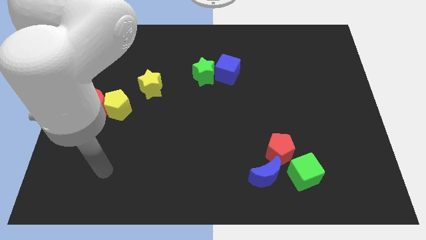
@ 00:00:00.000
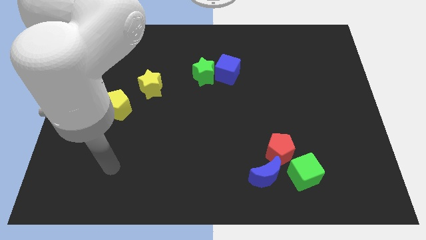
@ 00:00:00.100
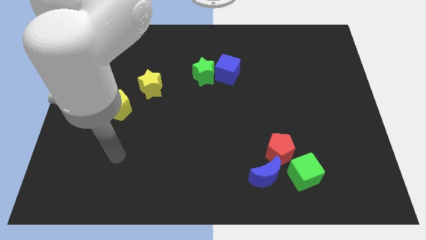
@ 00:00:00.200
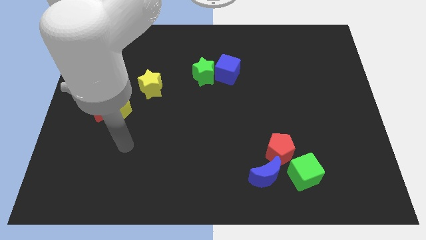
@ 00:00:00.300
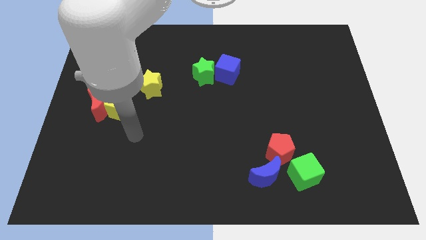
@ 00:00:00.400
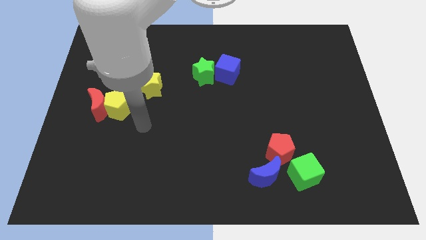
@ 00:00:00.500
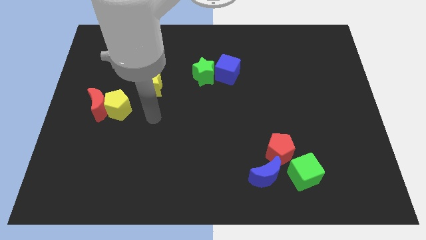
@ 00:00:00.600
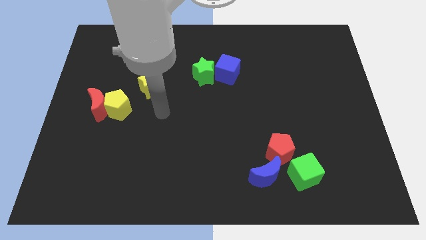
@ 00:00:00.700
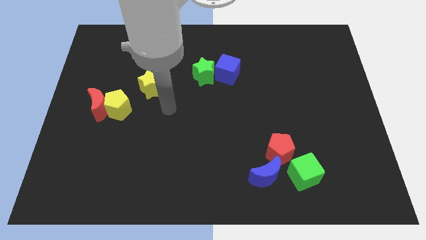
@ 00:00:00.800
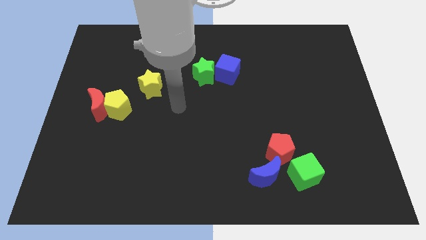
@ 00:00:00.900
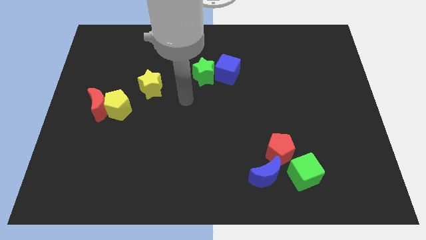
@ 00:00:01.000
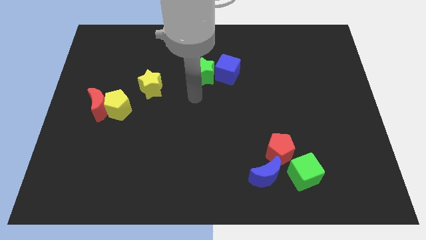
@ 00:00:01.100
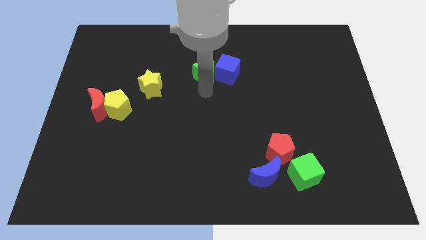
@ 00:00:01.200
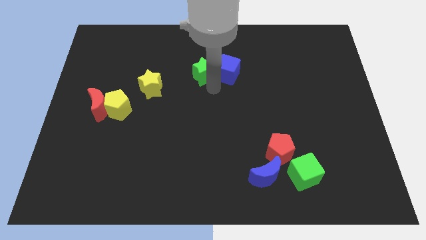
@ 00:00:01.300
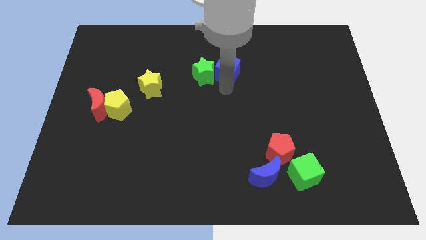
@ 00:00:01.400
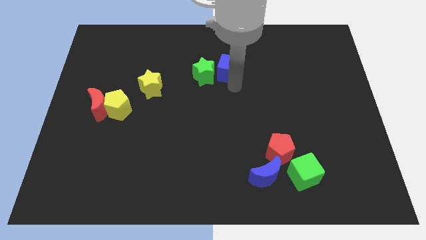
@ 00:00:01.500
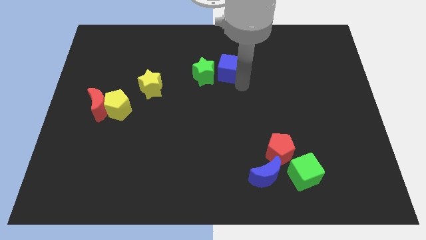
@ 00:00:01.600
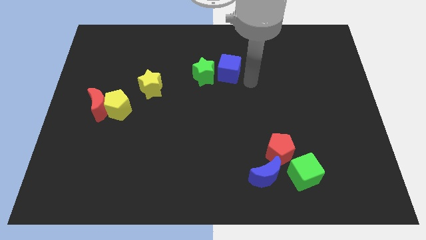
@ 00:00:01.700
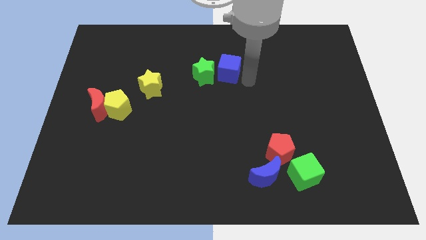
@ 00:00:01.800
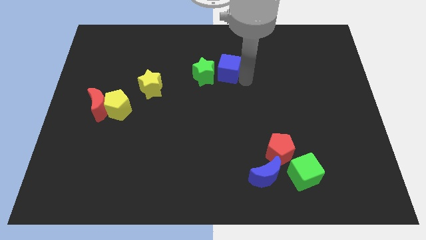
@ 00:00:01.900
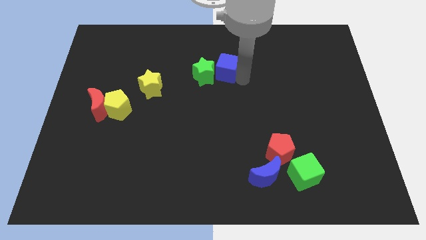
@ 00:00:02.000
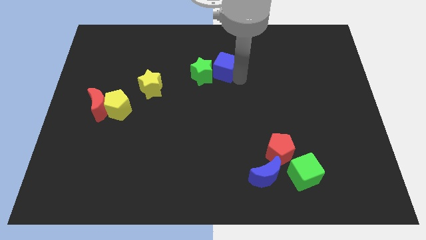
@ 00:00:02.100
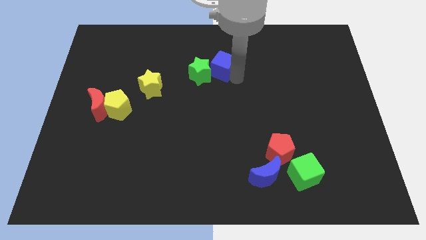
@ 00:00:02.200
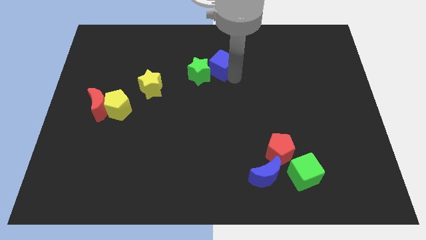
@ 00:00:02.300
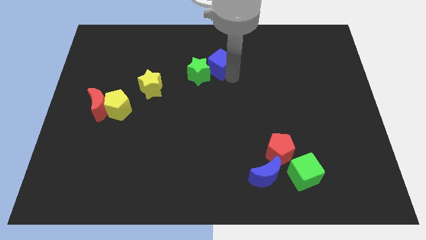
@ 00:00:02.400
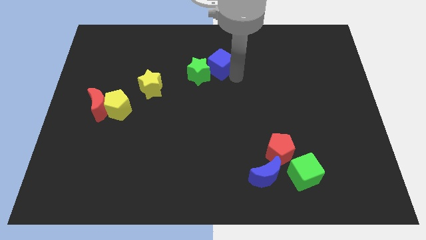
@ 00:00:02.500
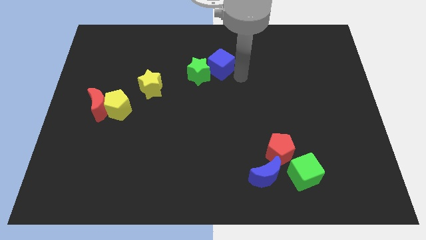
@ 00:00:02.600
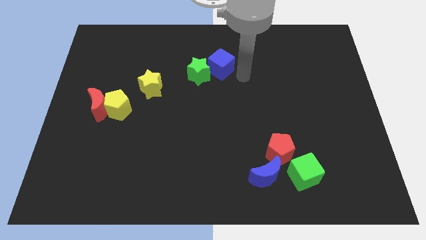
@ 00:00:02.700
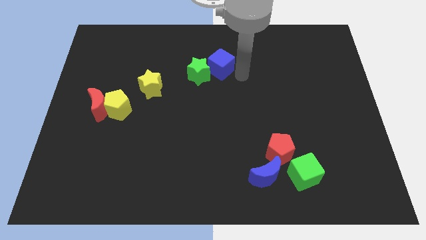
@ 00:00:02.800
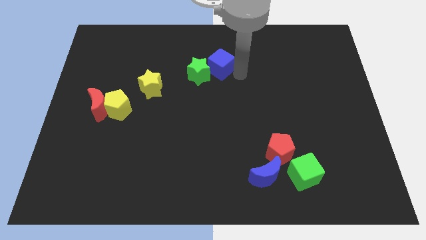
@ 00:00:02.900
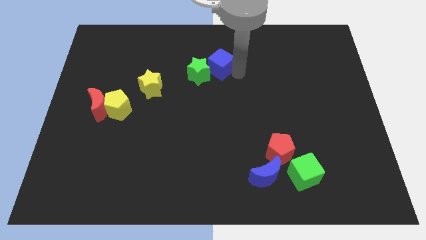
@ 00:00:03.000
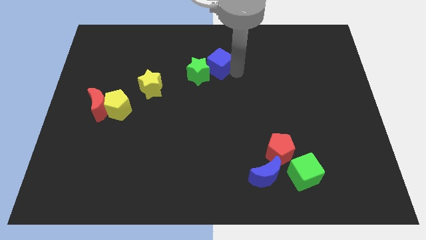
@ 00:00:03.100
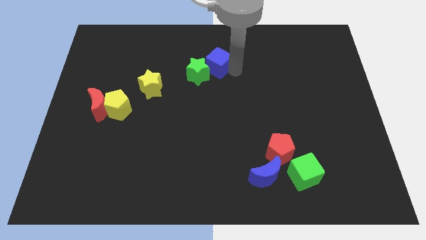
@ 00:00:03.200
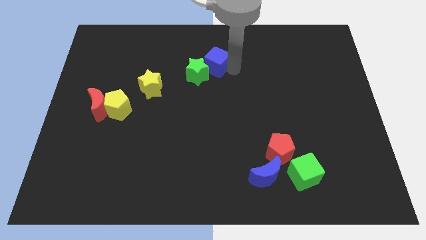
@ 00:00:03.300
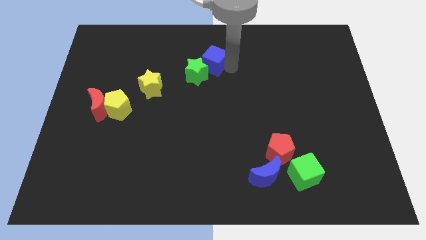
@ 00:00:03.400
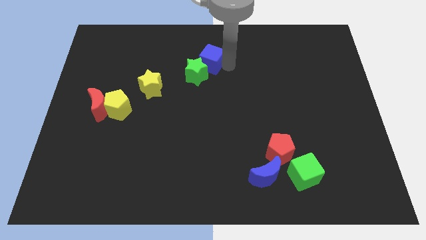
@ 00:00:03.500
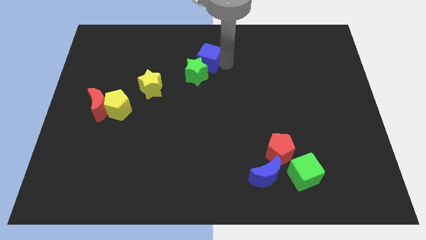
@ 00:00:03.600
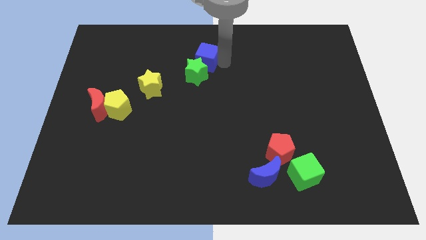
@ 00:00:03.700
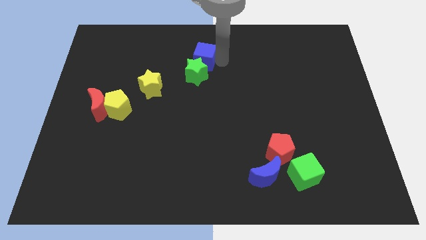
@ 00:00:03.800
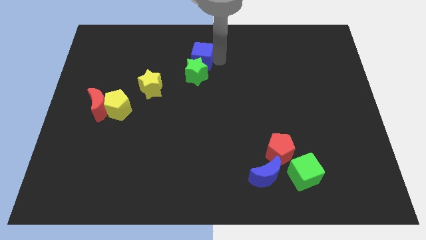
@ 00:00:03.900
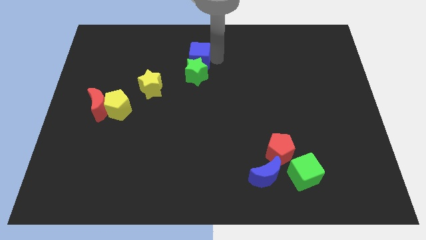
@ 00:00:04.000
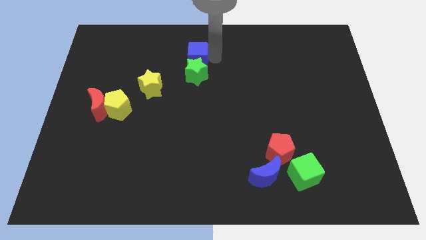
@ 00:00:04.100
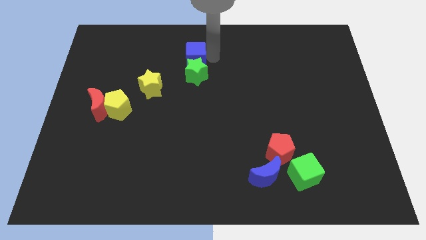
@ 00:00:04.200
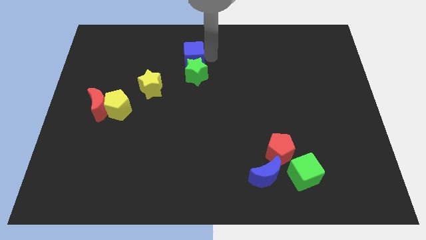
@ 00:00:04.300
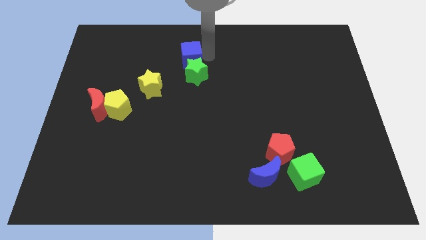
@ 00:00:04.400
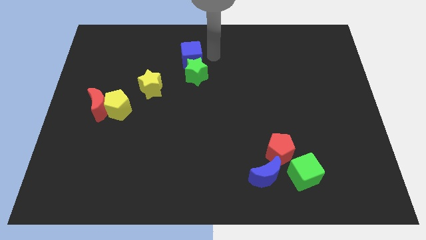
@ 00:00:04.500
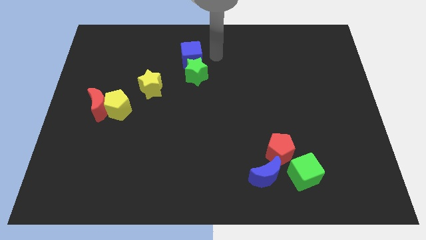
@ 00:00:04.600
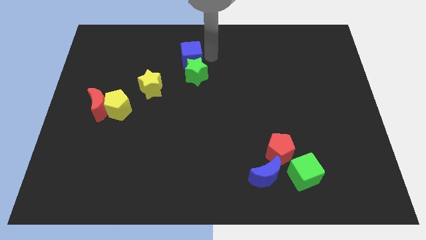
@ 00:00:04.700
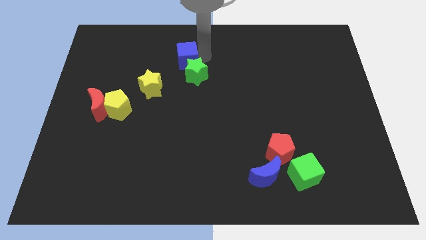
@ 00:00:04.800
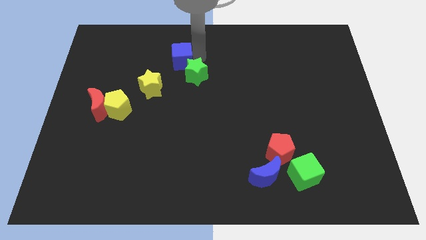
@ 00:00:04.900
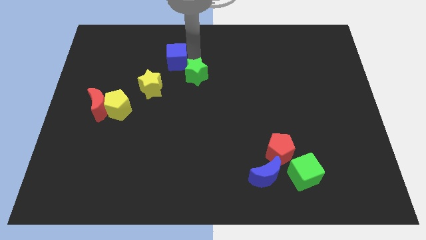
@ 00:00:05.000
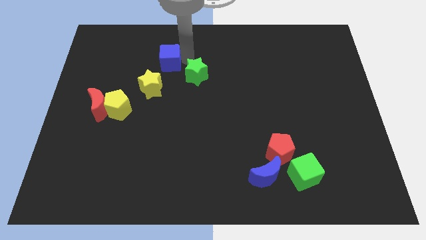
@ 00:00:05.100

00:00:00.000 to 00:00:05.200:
slide the blue cube to the top side of the yellow star

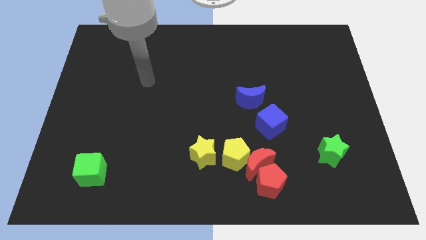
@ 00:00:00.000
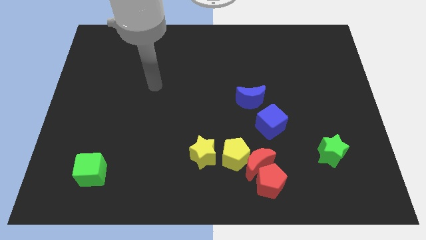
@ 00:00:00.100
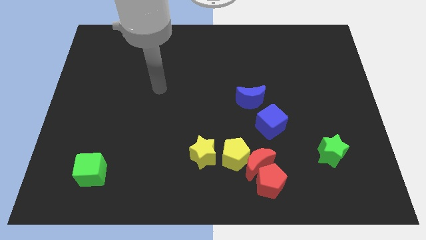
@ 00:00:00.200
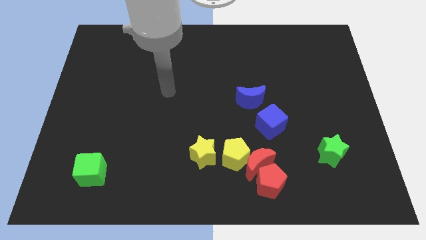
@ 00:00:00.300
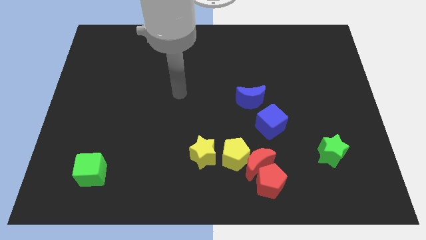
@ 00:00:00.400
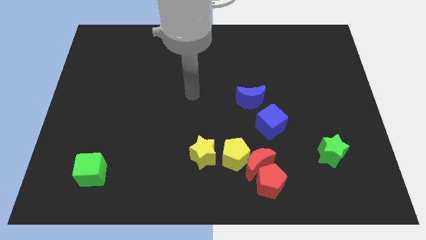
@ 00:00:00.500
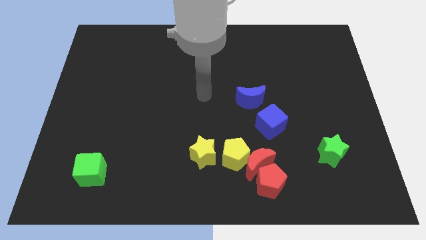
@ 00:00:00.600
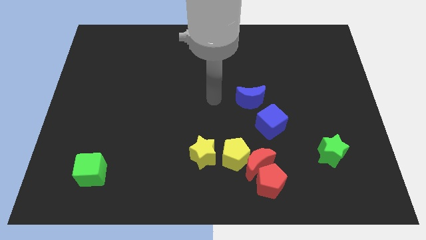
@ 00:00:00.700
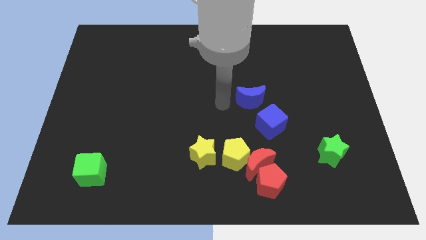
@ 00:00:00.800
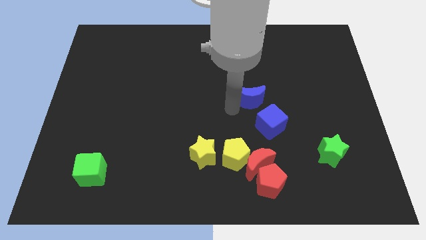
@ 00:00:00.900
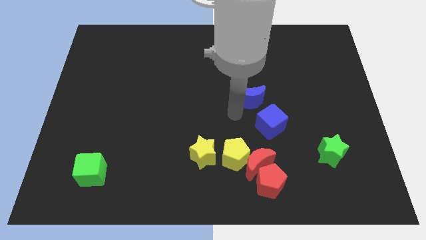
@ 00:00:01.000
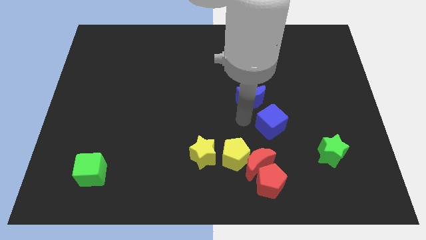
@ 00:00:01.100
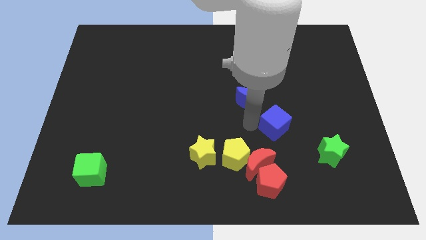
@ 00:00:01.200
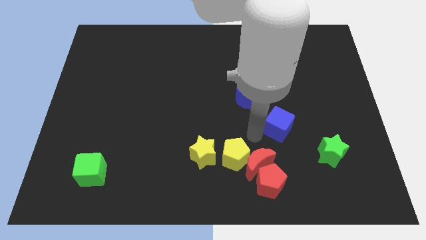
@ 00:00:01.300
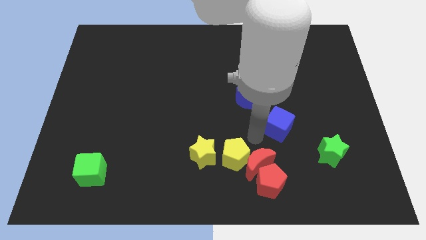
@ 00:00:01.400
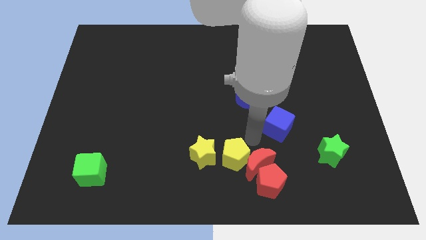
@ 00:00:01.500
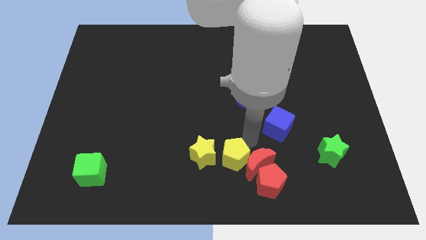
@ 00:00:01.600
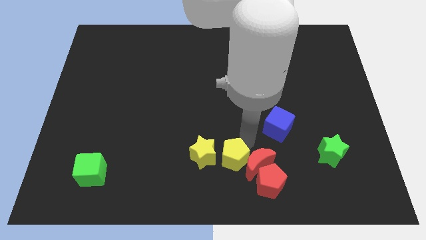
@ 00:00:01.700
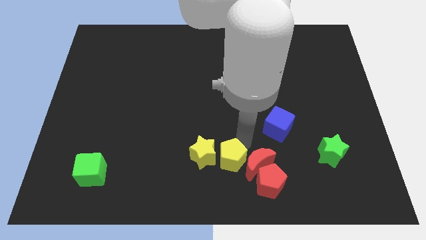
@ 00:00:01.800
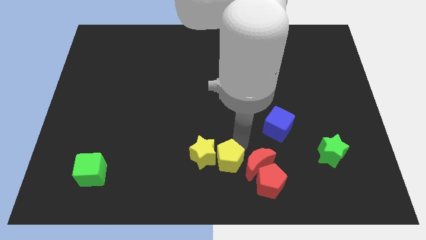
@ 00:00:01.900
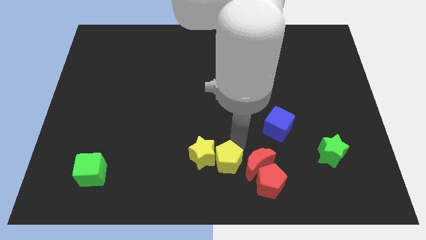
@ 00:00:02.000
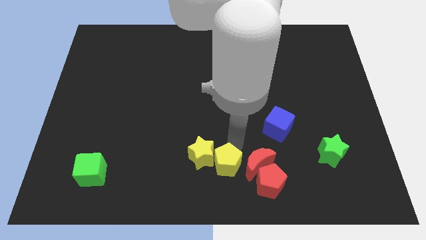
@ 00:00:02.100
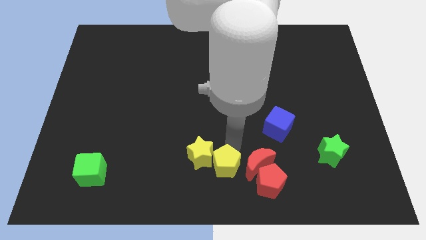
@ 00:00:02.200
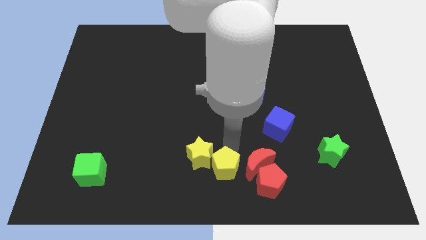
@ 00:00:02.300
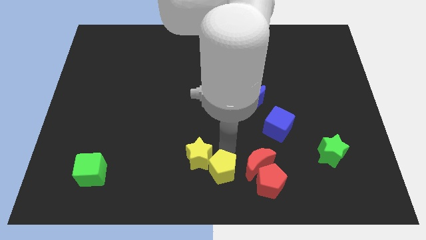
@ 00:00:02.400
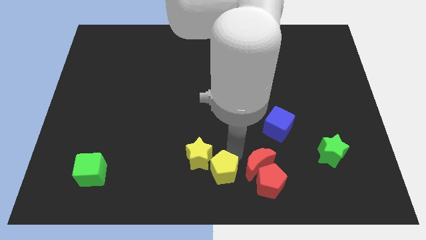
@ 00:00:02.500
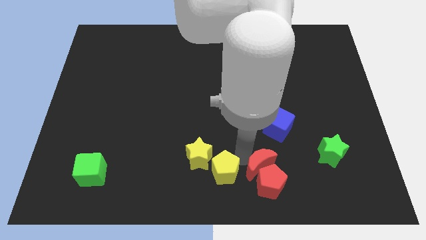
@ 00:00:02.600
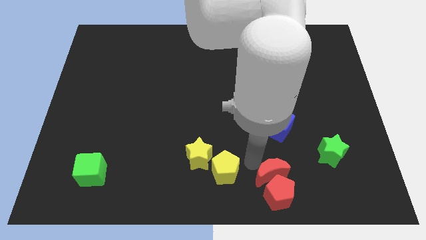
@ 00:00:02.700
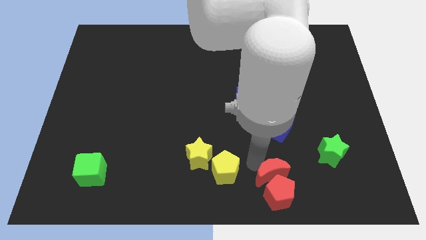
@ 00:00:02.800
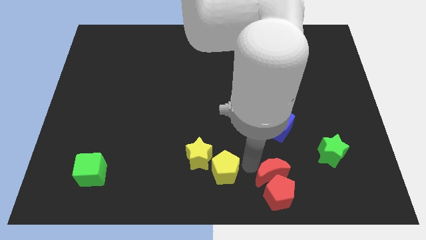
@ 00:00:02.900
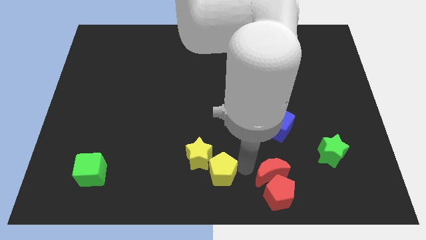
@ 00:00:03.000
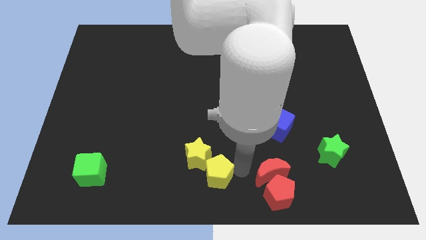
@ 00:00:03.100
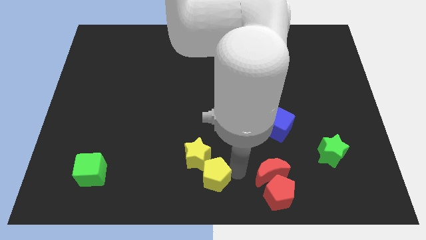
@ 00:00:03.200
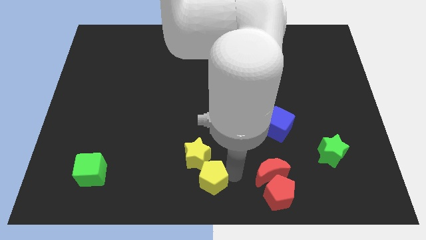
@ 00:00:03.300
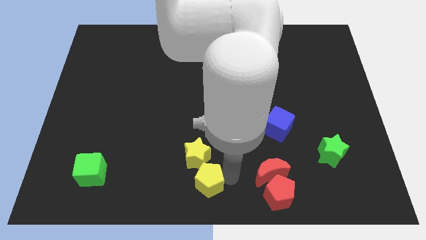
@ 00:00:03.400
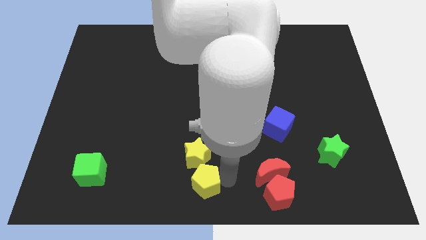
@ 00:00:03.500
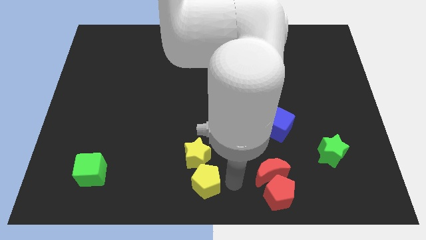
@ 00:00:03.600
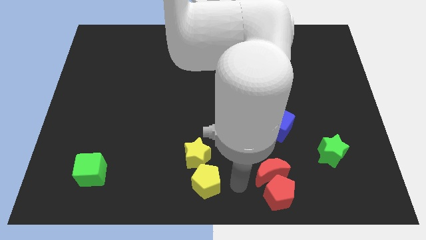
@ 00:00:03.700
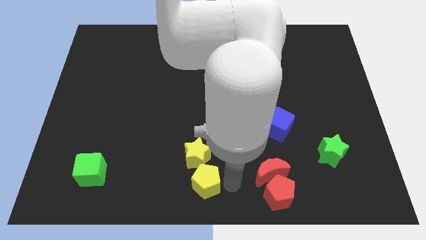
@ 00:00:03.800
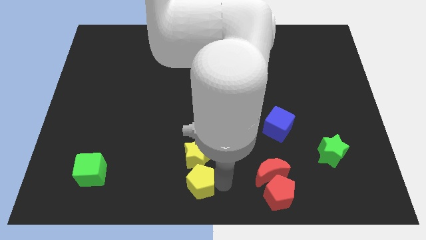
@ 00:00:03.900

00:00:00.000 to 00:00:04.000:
push the yellow pentagon diagonally down and to the left of the yellow star
